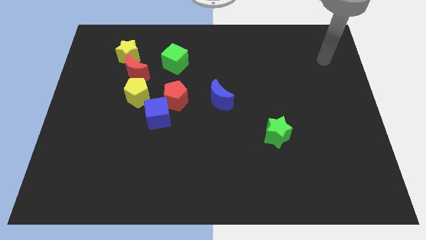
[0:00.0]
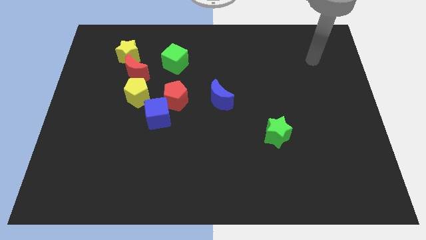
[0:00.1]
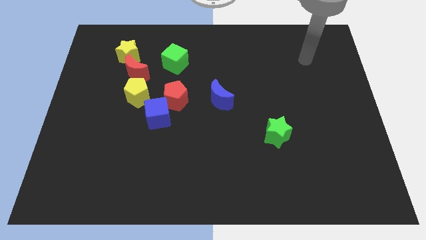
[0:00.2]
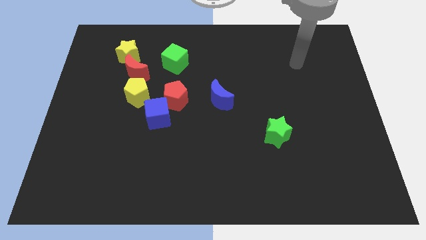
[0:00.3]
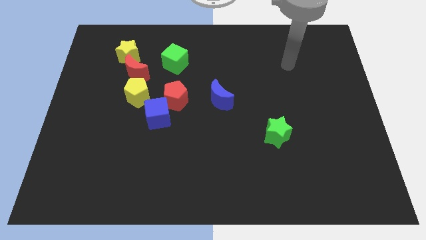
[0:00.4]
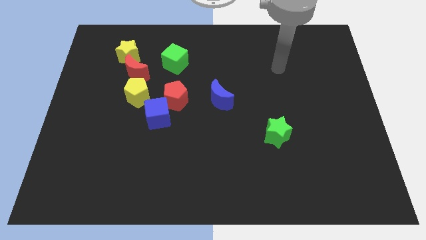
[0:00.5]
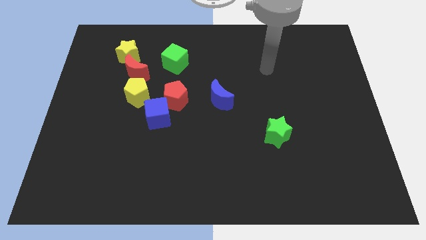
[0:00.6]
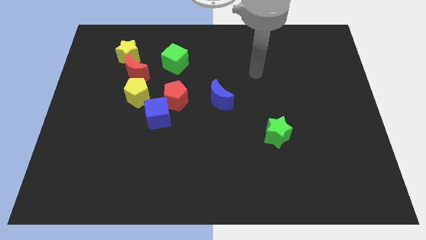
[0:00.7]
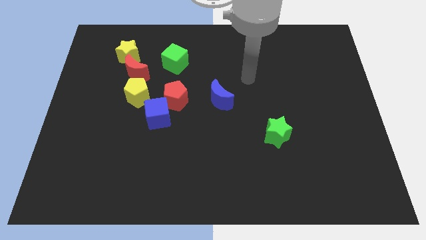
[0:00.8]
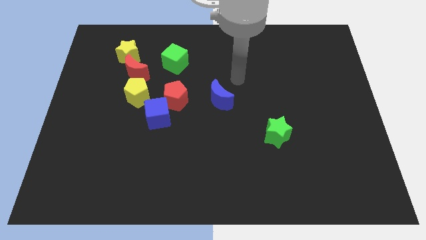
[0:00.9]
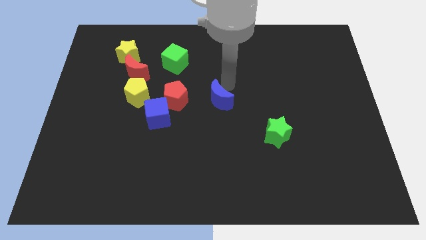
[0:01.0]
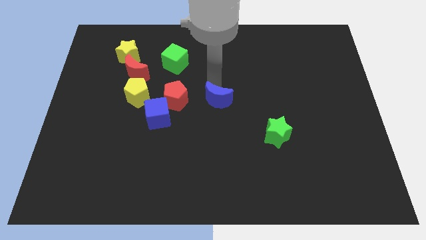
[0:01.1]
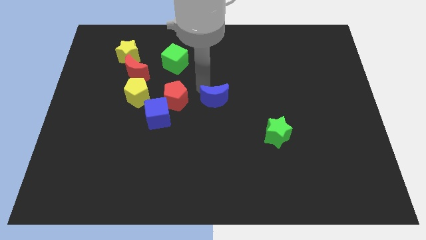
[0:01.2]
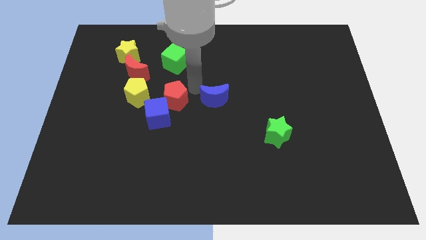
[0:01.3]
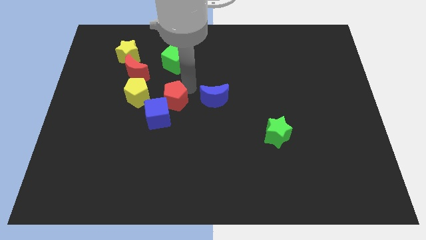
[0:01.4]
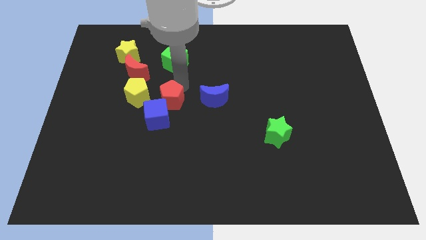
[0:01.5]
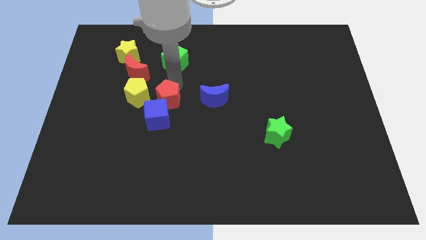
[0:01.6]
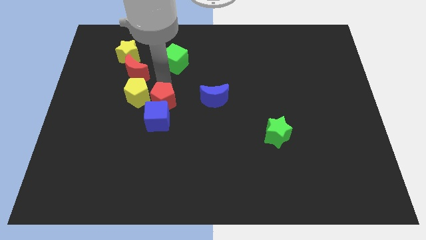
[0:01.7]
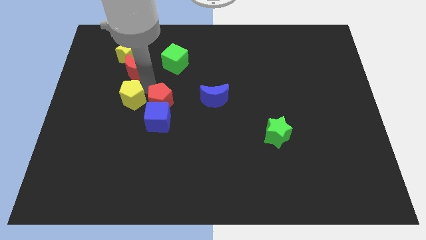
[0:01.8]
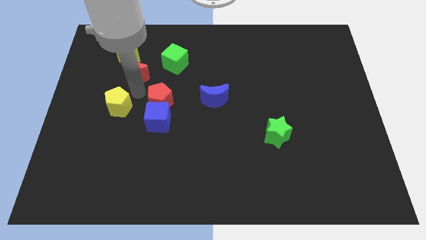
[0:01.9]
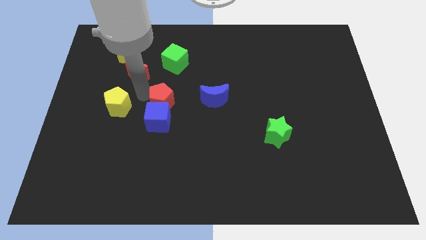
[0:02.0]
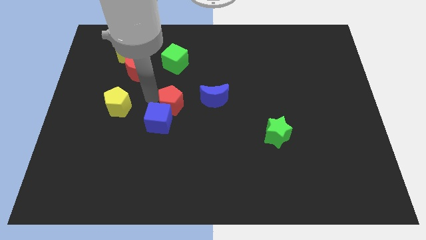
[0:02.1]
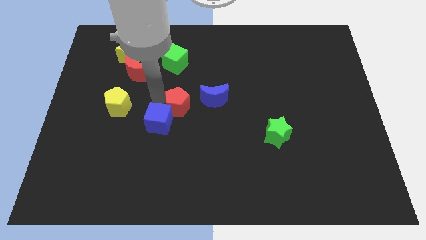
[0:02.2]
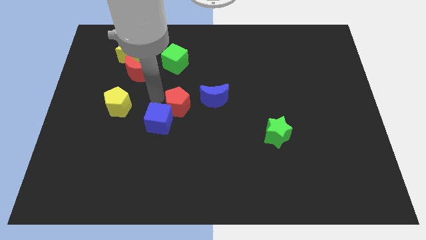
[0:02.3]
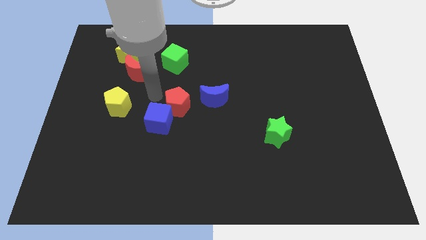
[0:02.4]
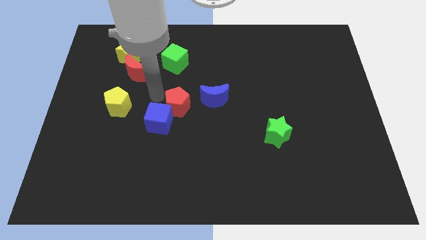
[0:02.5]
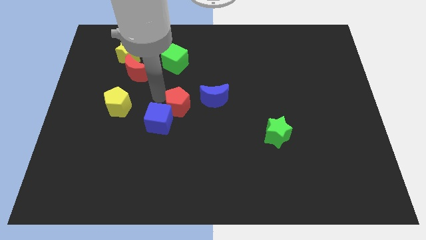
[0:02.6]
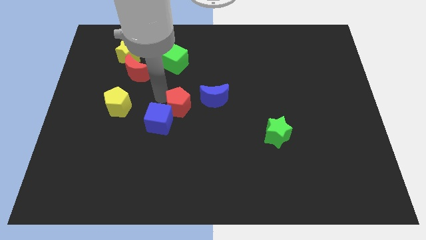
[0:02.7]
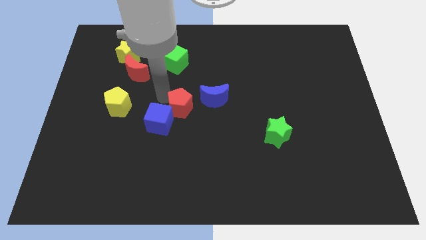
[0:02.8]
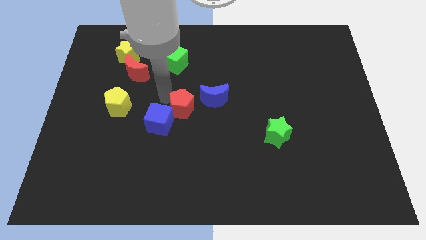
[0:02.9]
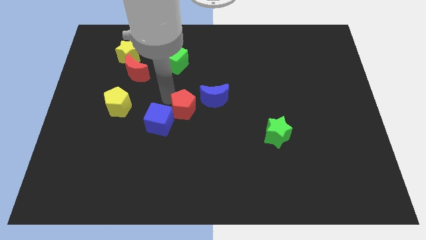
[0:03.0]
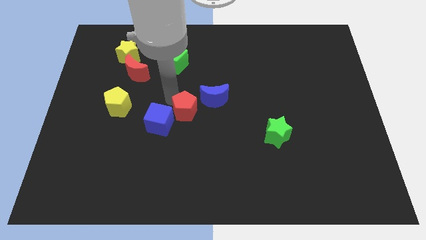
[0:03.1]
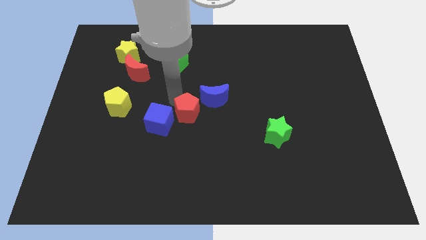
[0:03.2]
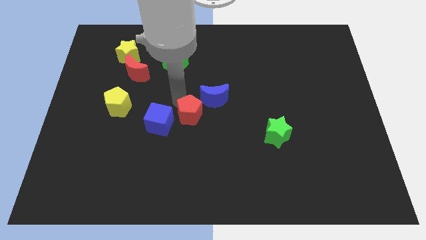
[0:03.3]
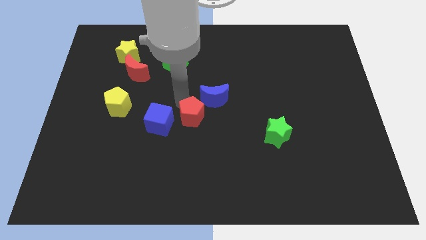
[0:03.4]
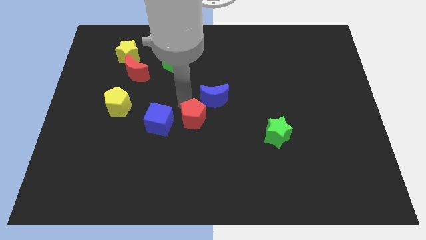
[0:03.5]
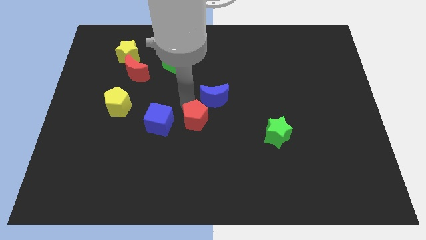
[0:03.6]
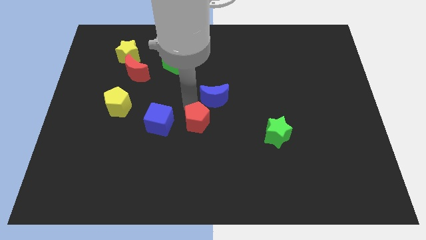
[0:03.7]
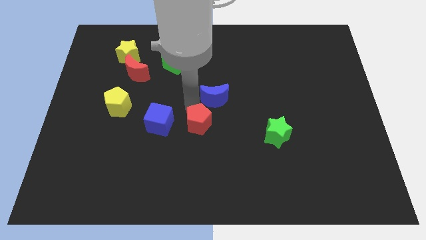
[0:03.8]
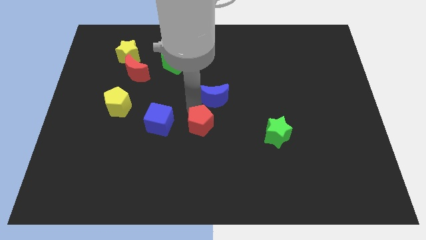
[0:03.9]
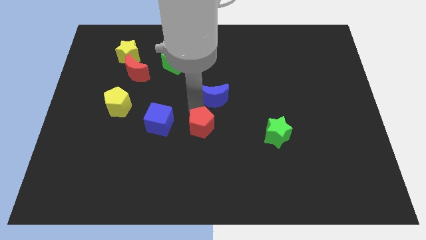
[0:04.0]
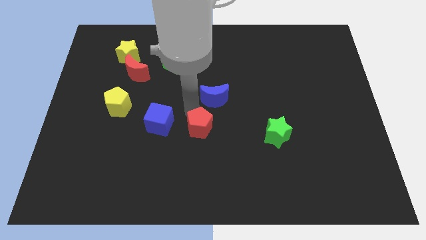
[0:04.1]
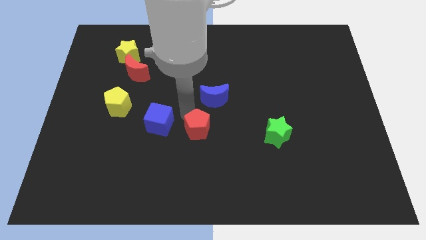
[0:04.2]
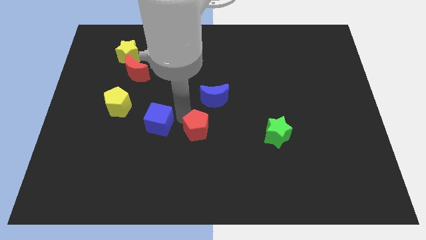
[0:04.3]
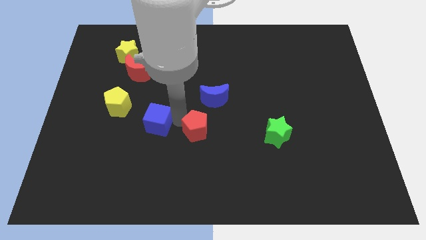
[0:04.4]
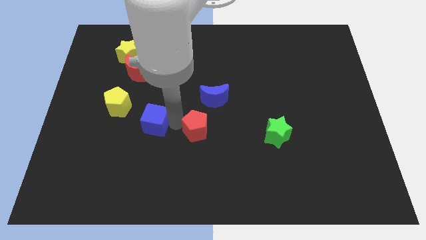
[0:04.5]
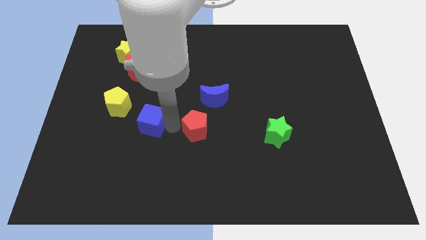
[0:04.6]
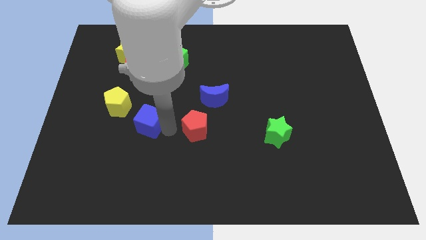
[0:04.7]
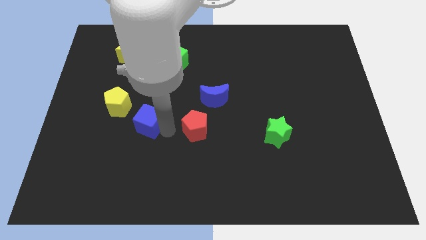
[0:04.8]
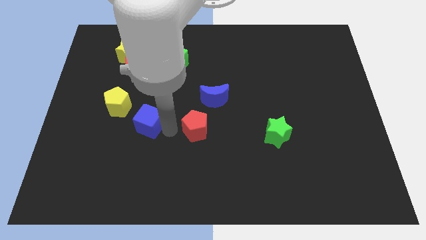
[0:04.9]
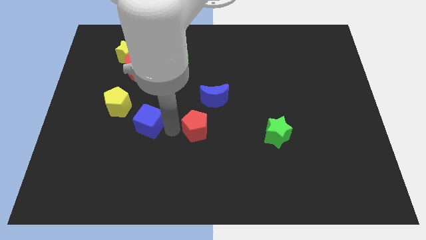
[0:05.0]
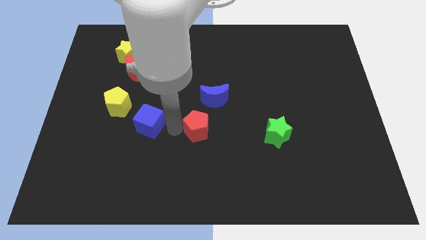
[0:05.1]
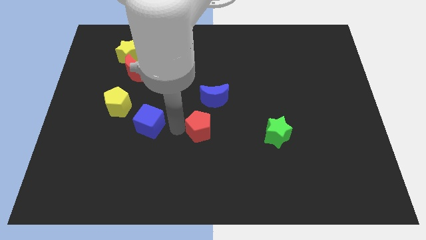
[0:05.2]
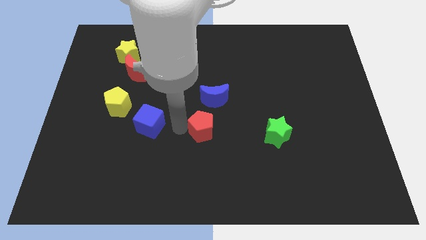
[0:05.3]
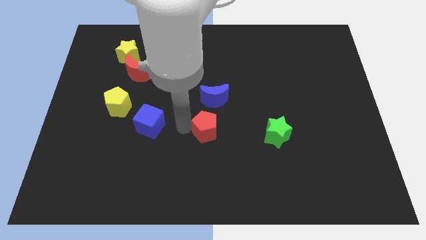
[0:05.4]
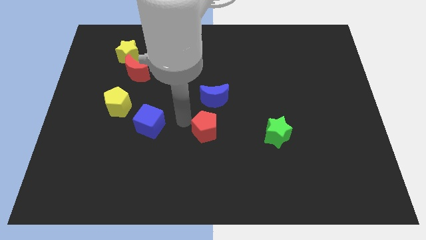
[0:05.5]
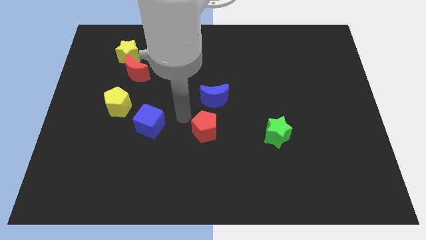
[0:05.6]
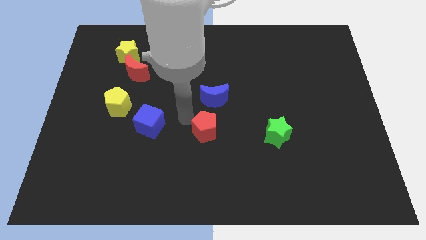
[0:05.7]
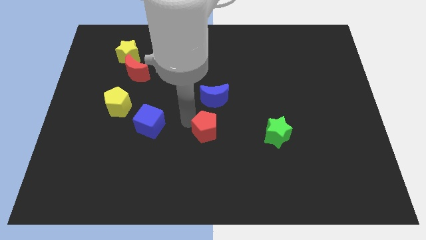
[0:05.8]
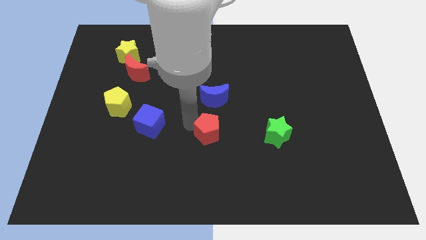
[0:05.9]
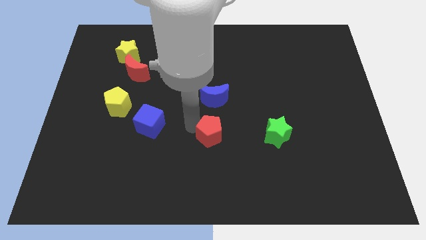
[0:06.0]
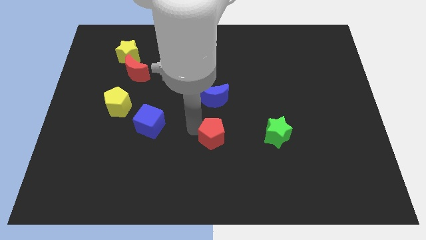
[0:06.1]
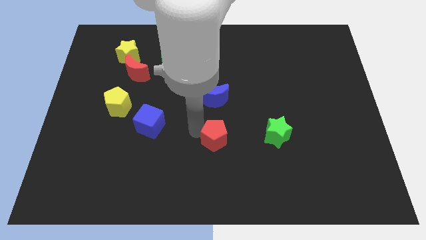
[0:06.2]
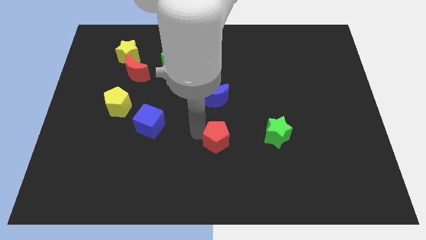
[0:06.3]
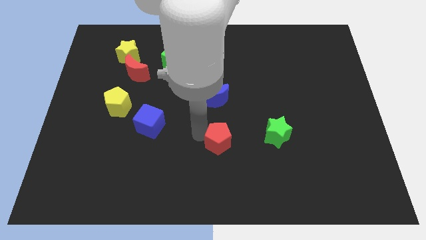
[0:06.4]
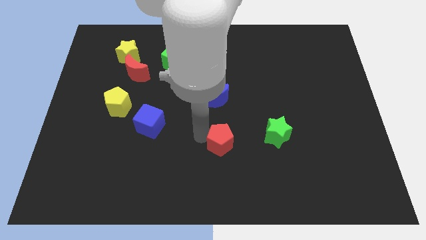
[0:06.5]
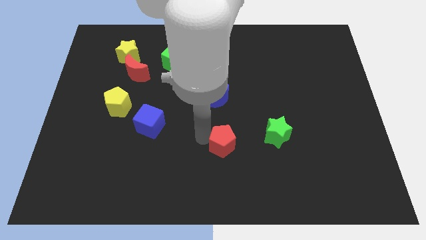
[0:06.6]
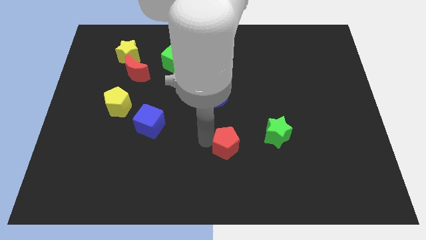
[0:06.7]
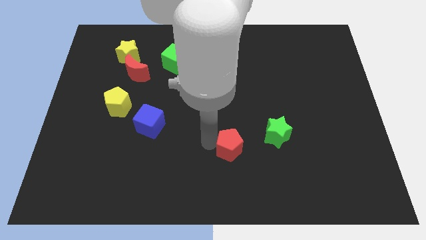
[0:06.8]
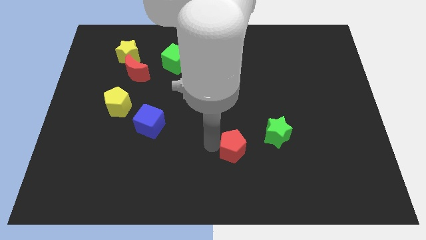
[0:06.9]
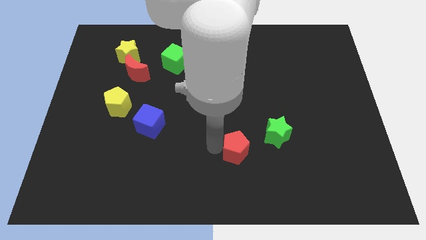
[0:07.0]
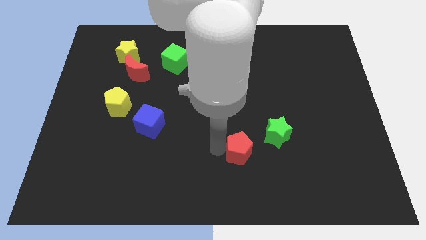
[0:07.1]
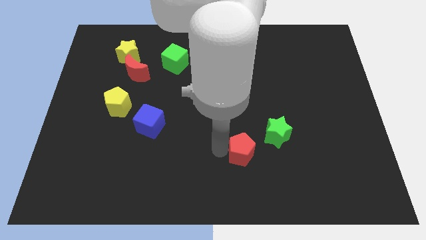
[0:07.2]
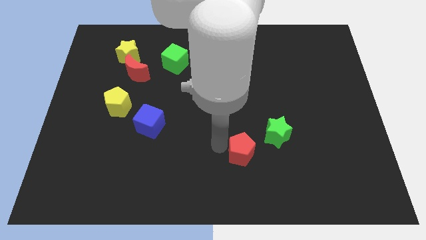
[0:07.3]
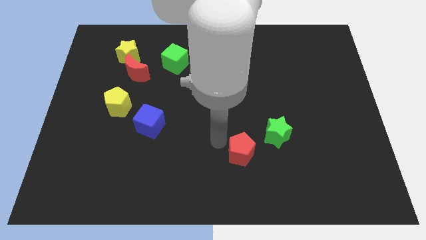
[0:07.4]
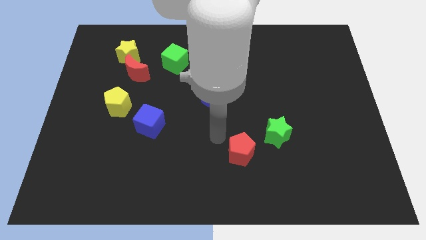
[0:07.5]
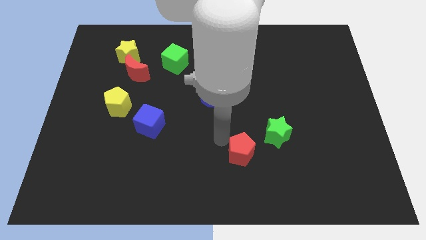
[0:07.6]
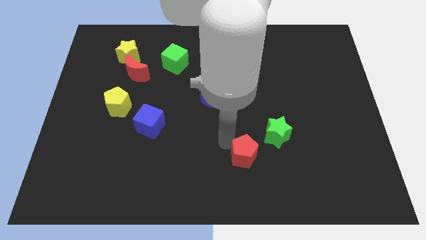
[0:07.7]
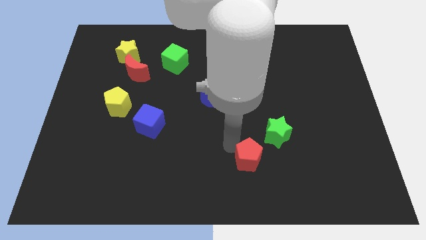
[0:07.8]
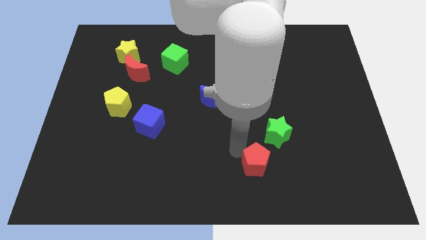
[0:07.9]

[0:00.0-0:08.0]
put the red pentagon below the green star
